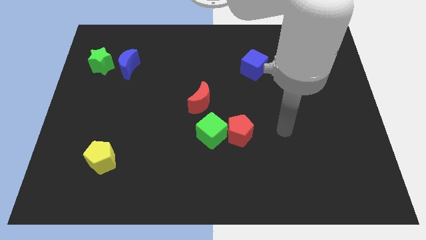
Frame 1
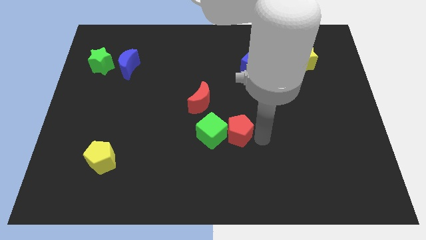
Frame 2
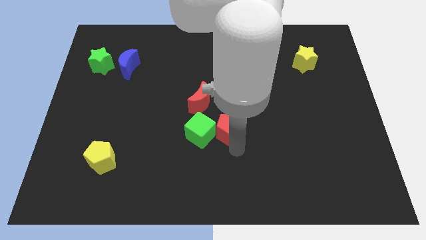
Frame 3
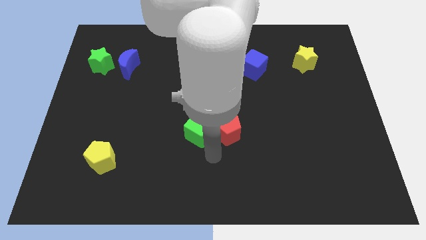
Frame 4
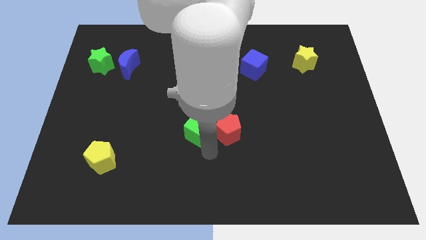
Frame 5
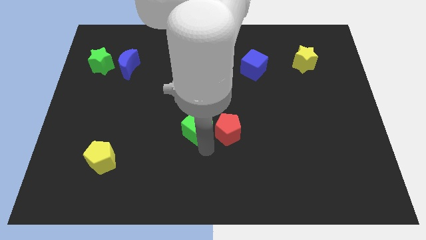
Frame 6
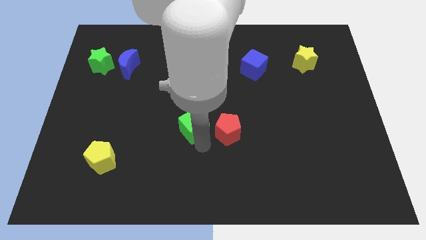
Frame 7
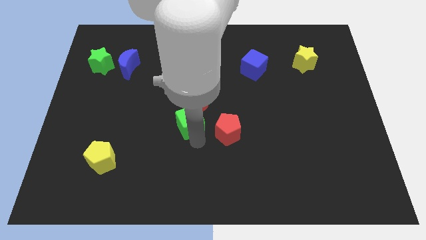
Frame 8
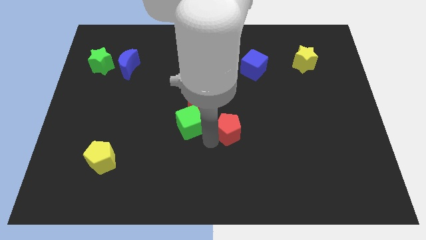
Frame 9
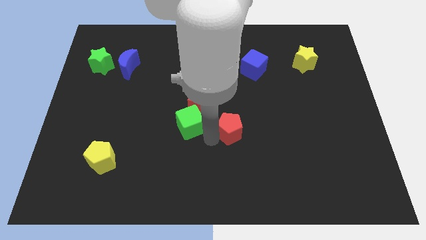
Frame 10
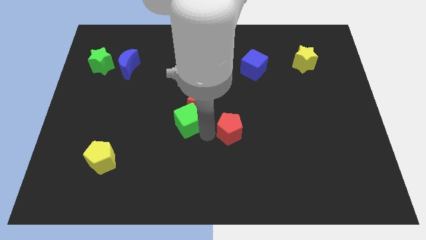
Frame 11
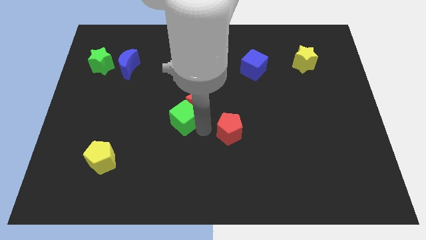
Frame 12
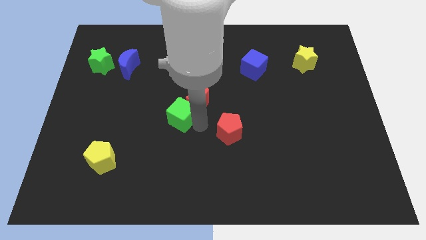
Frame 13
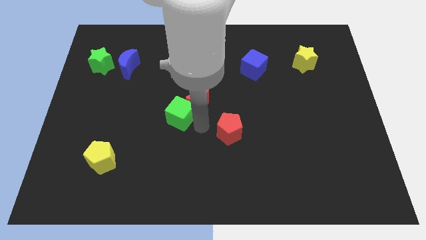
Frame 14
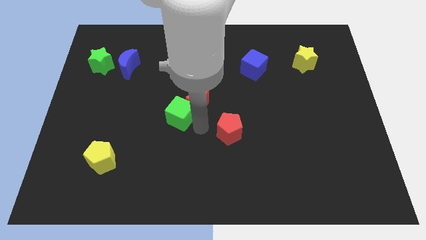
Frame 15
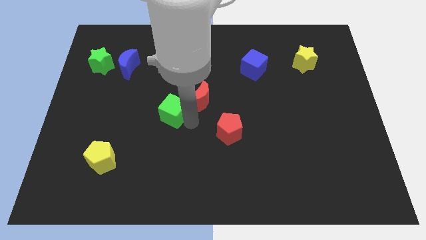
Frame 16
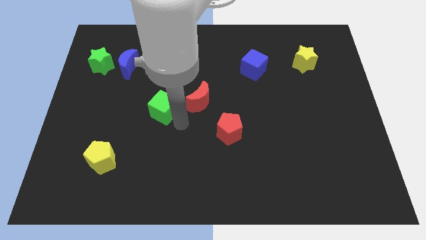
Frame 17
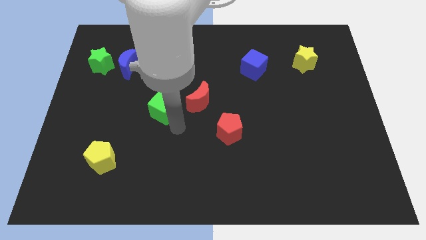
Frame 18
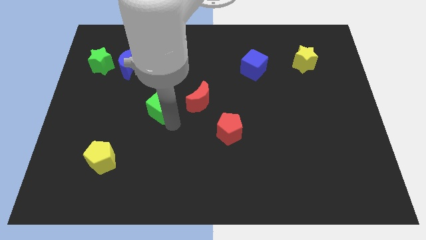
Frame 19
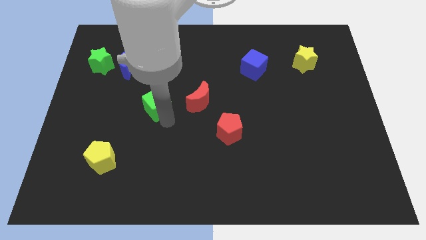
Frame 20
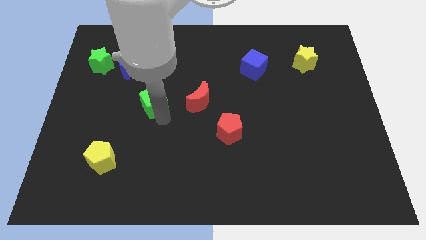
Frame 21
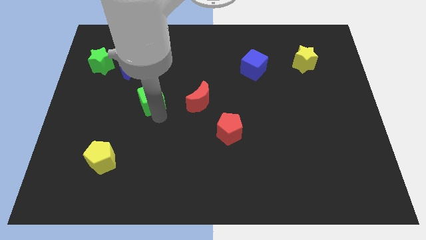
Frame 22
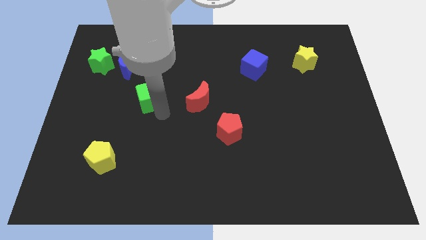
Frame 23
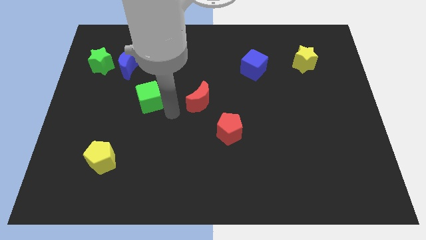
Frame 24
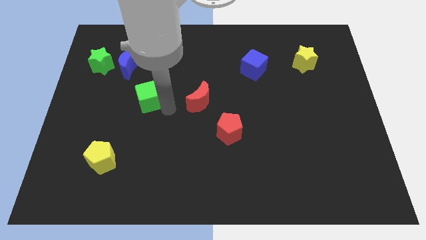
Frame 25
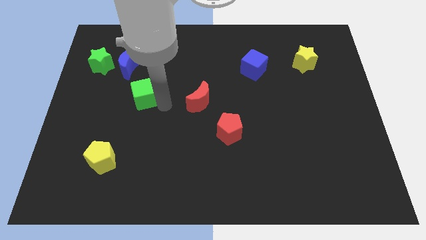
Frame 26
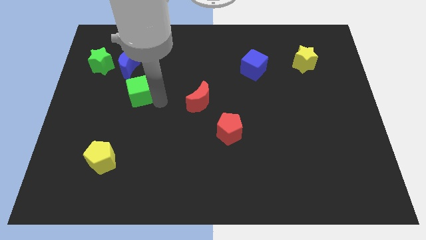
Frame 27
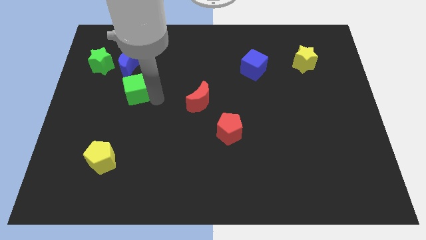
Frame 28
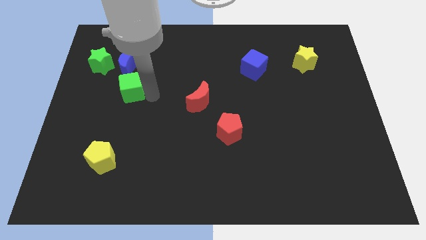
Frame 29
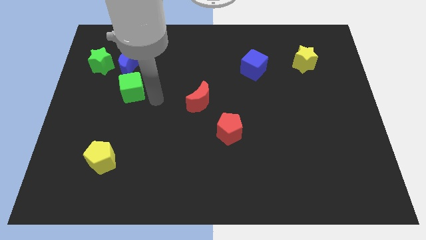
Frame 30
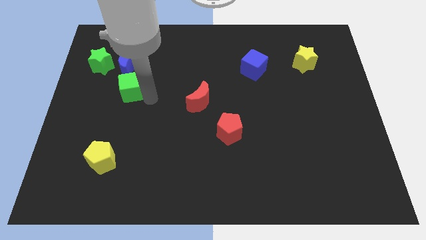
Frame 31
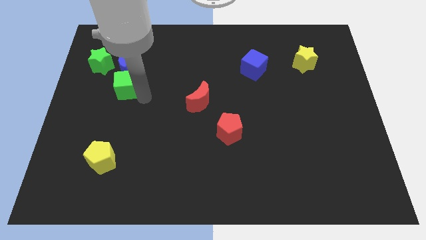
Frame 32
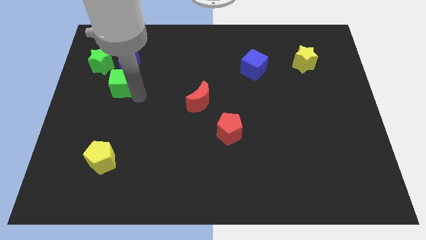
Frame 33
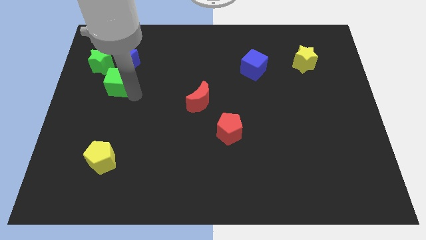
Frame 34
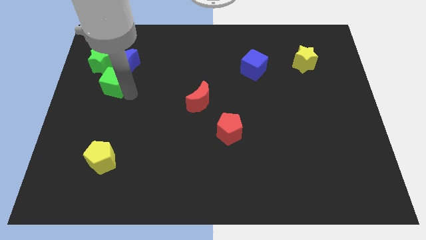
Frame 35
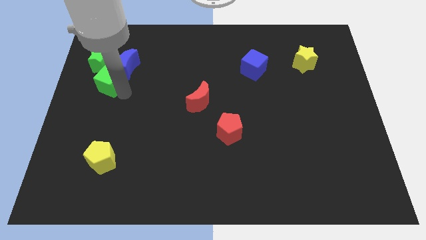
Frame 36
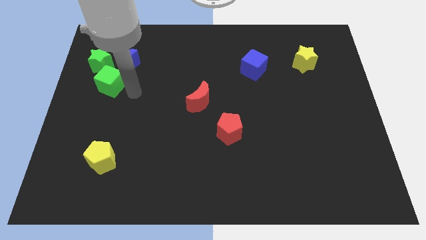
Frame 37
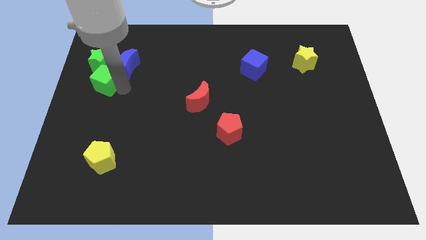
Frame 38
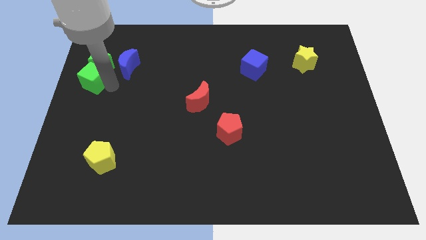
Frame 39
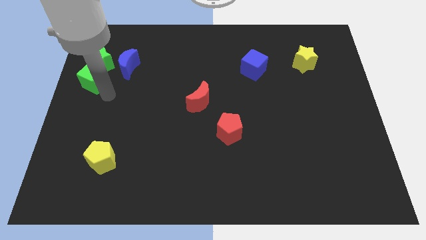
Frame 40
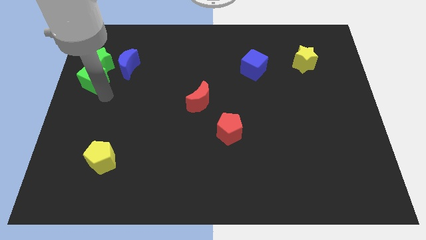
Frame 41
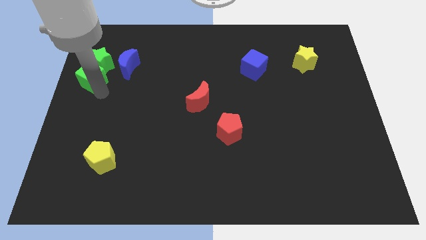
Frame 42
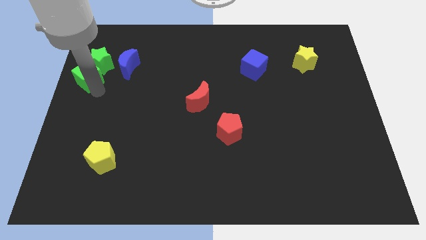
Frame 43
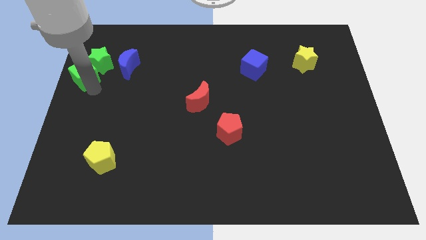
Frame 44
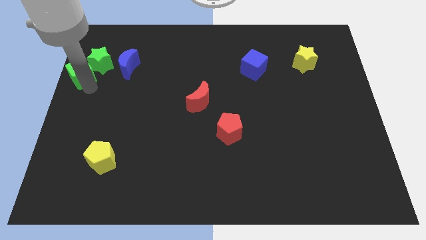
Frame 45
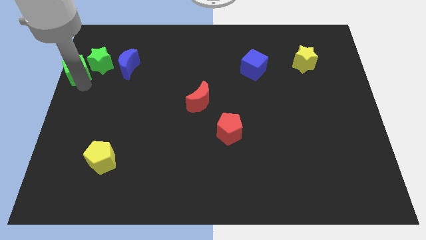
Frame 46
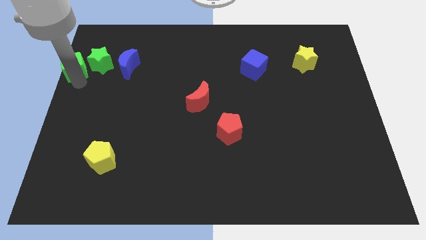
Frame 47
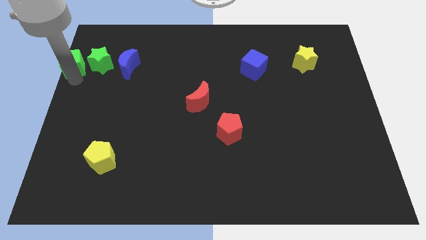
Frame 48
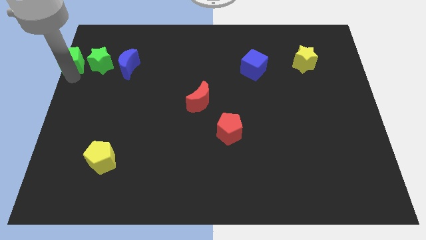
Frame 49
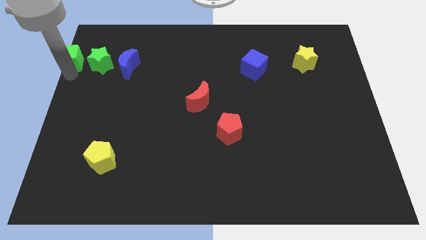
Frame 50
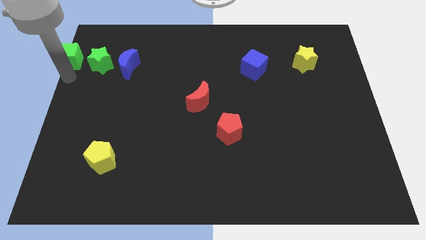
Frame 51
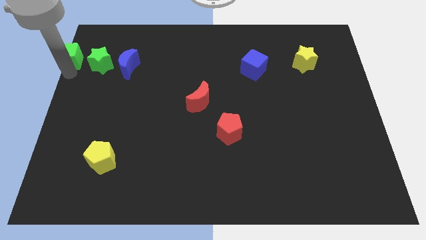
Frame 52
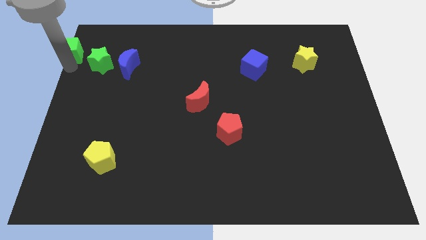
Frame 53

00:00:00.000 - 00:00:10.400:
move the green cube to the top left corner

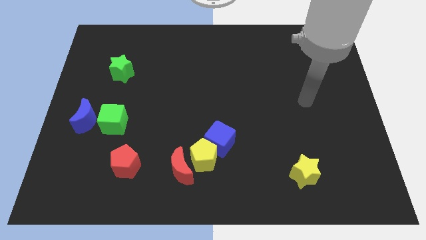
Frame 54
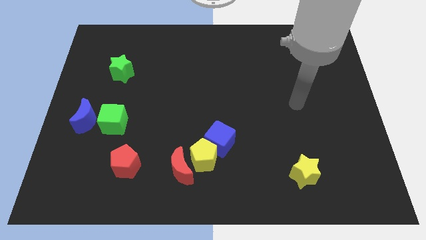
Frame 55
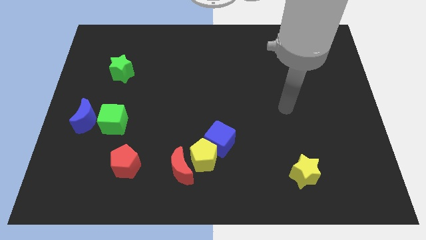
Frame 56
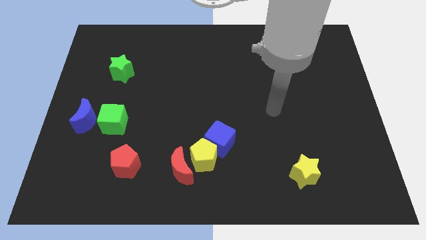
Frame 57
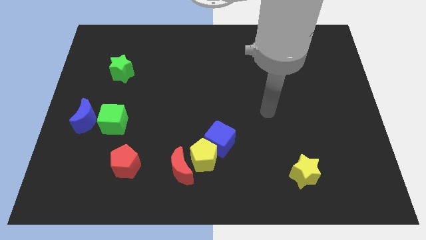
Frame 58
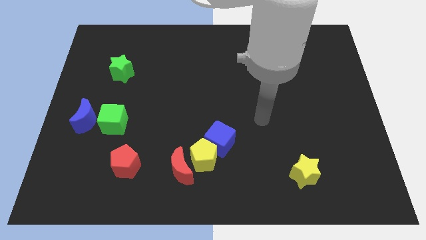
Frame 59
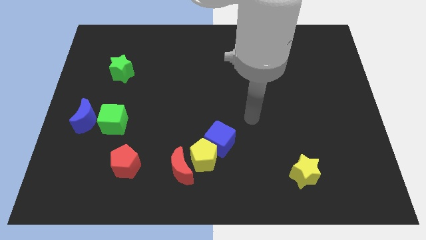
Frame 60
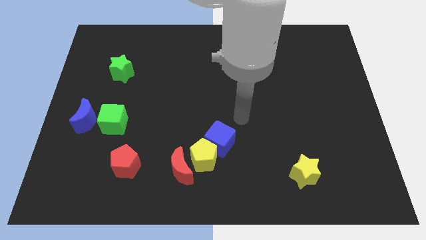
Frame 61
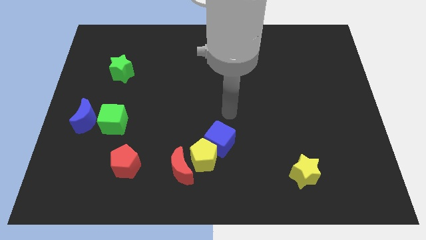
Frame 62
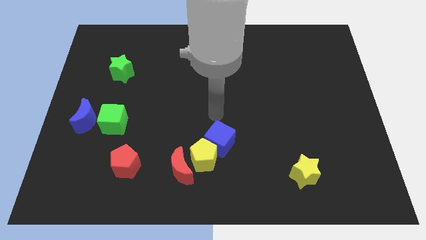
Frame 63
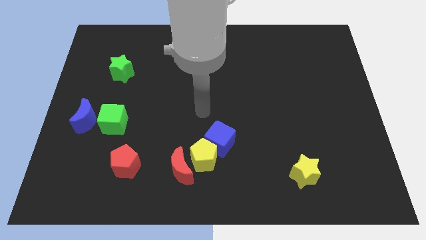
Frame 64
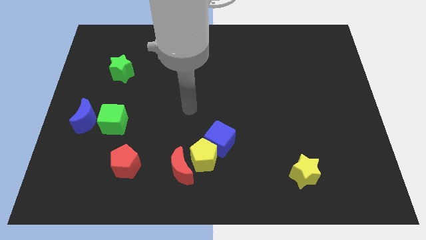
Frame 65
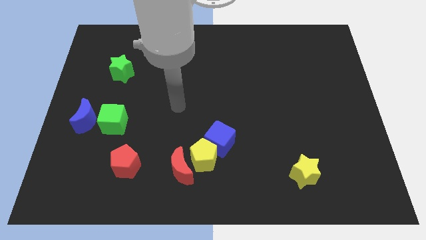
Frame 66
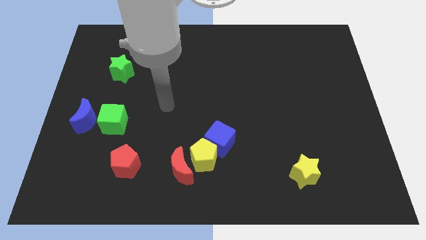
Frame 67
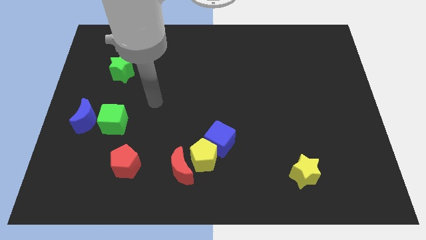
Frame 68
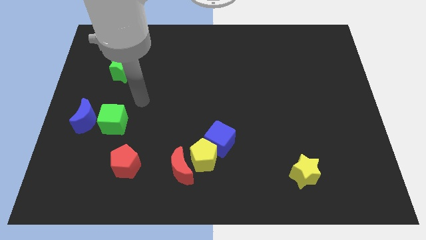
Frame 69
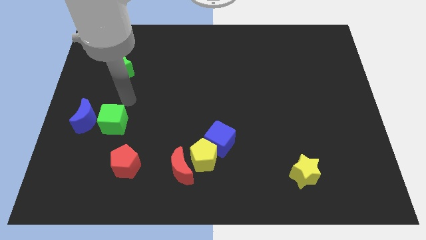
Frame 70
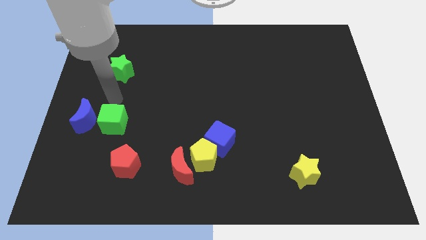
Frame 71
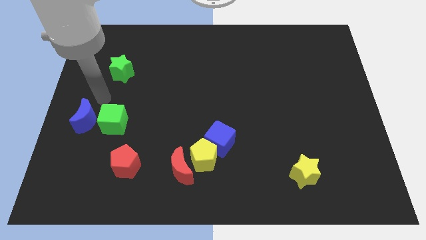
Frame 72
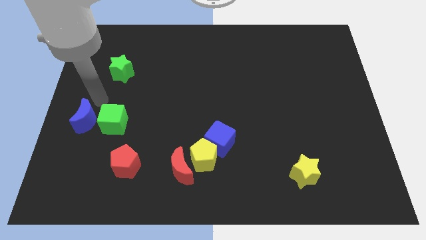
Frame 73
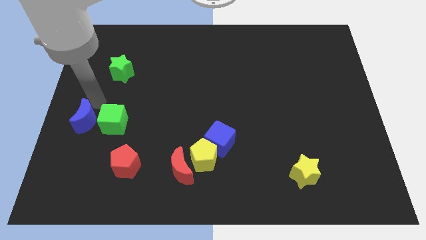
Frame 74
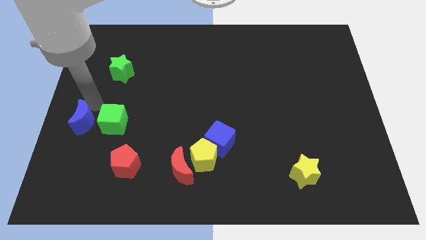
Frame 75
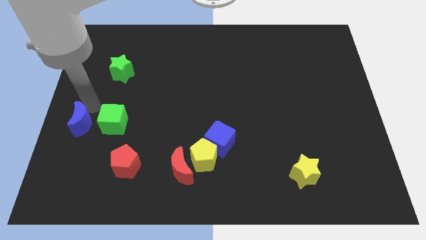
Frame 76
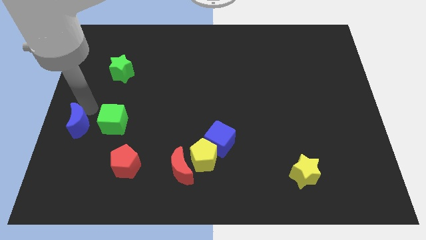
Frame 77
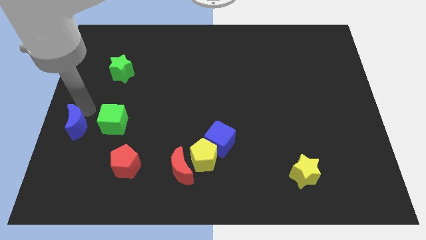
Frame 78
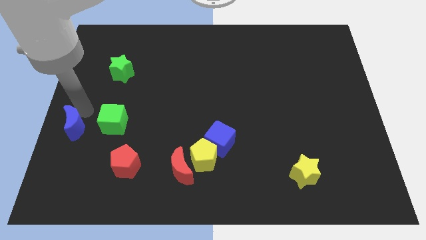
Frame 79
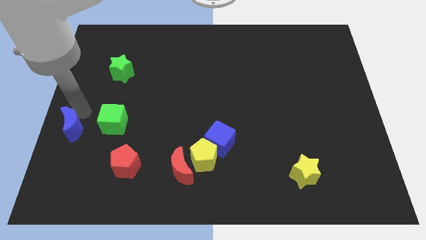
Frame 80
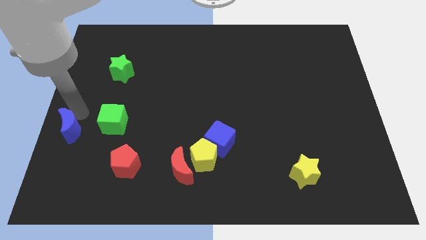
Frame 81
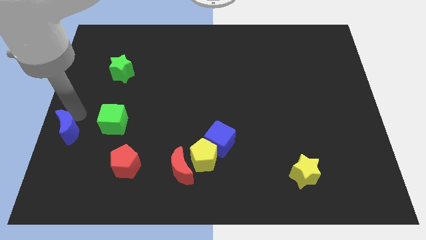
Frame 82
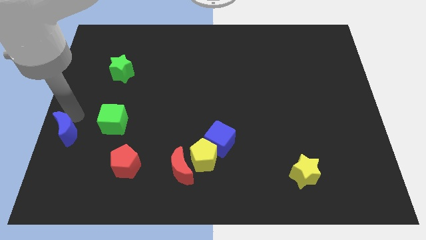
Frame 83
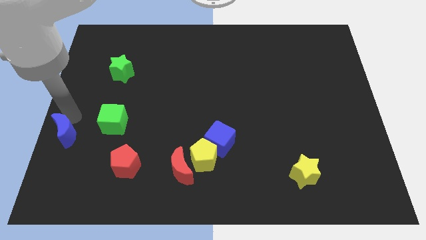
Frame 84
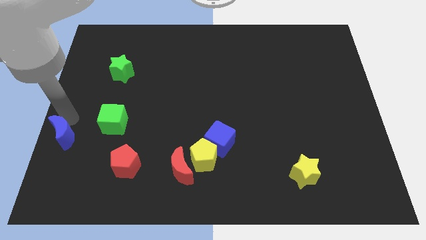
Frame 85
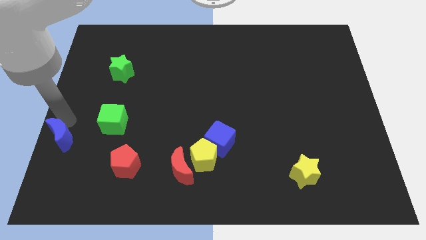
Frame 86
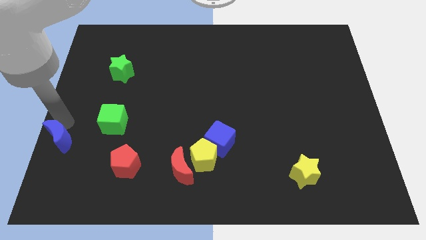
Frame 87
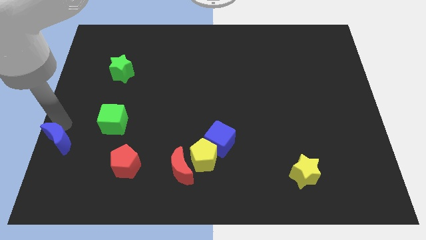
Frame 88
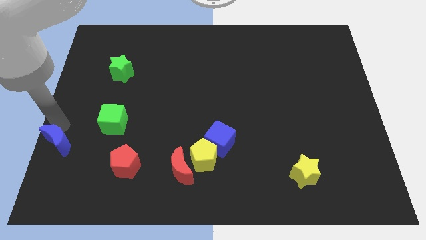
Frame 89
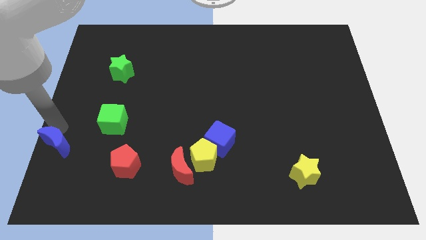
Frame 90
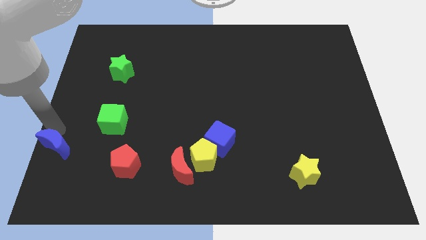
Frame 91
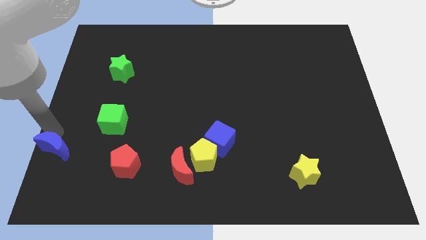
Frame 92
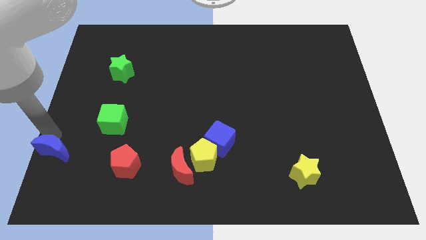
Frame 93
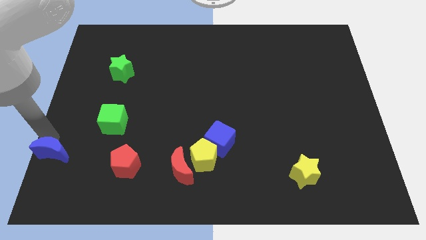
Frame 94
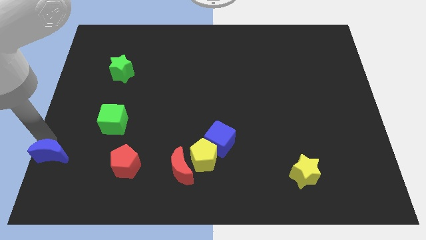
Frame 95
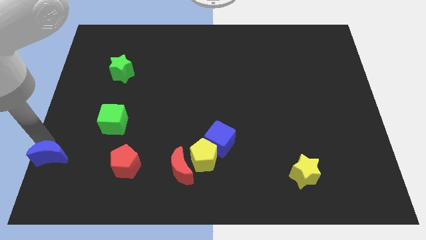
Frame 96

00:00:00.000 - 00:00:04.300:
put the blue moon to the bottom left corner
